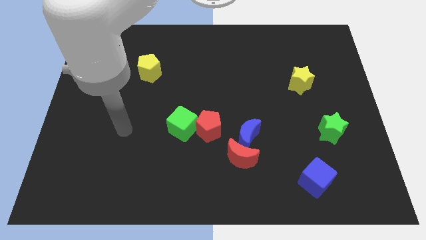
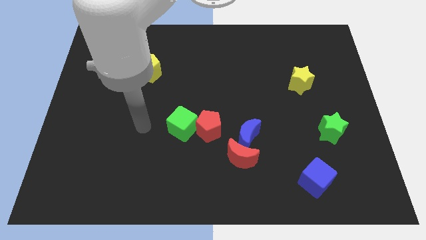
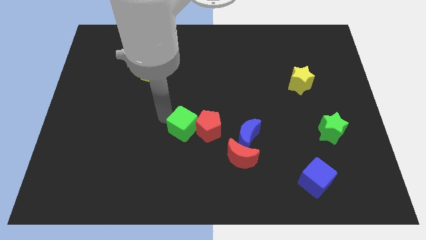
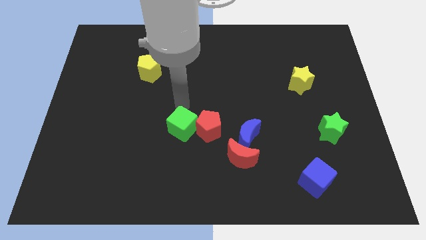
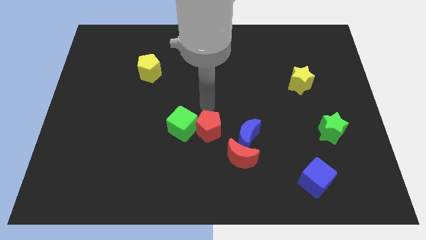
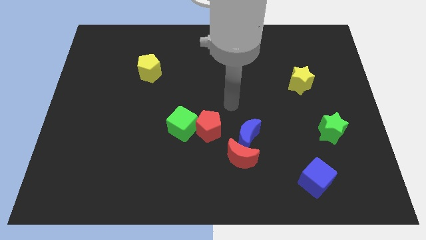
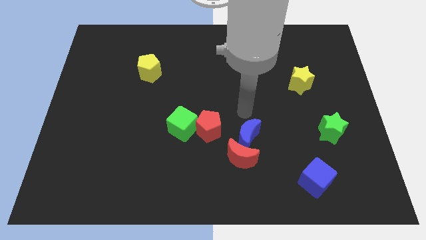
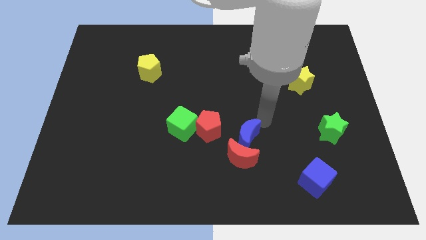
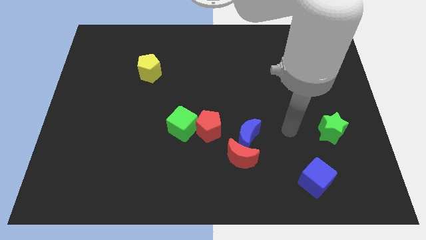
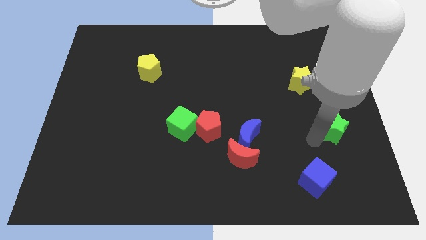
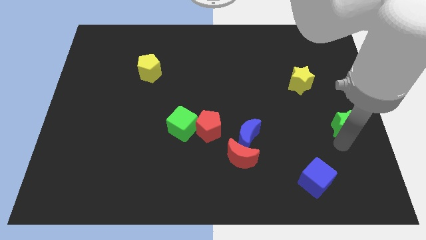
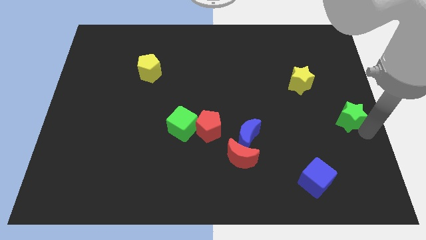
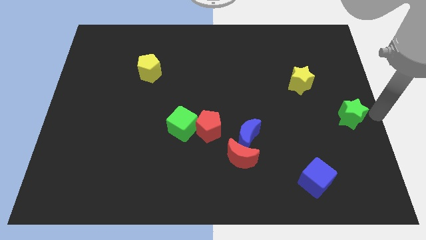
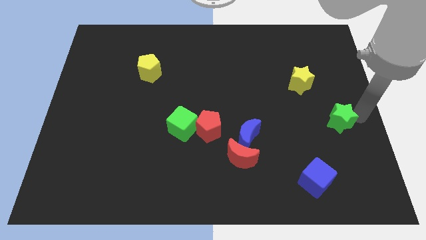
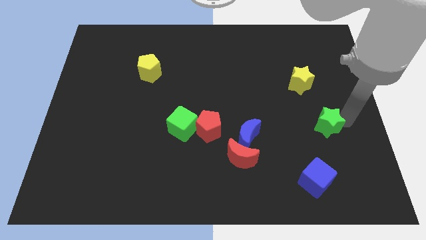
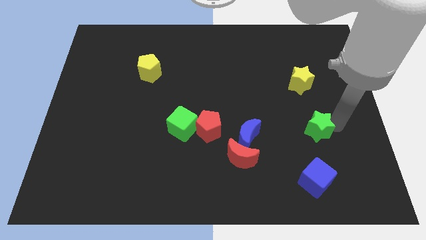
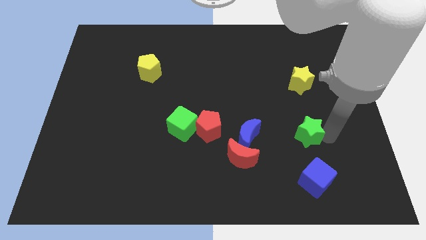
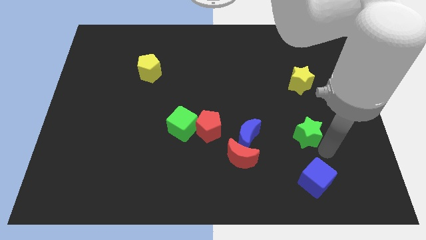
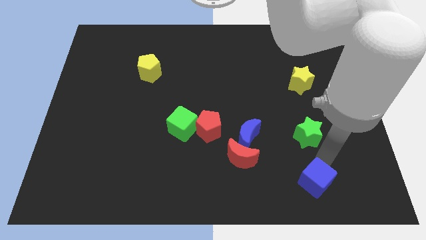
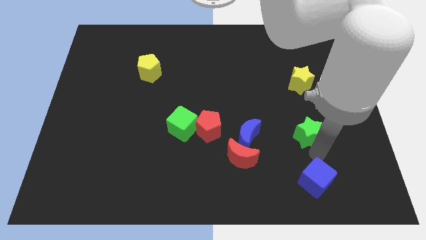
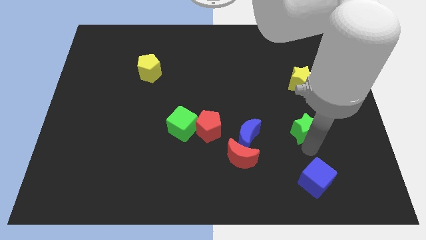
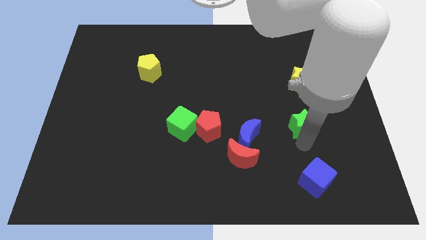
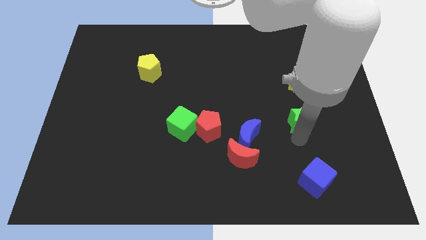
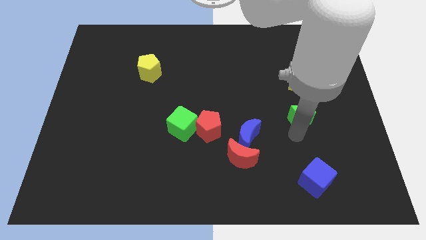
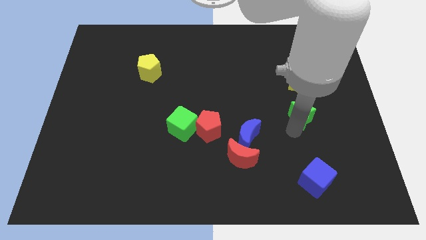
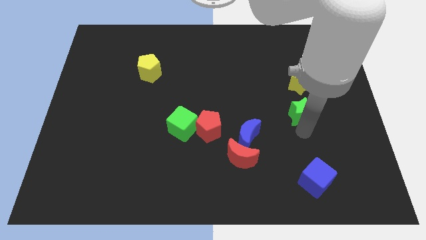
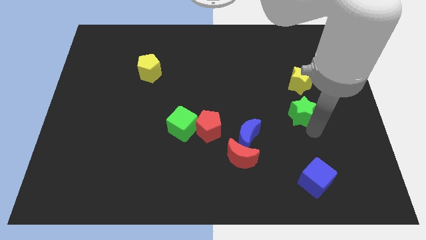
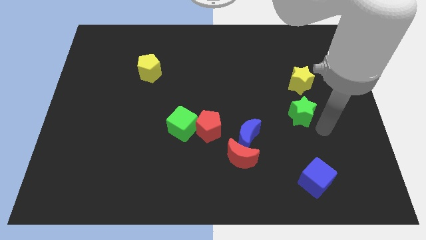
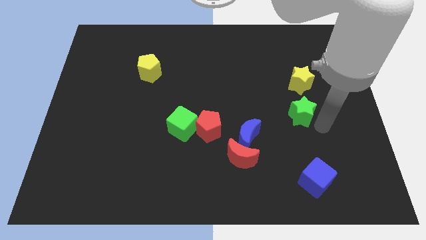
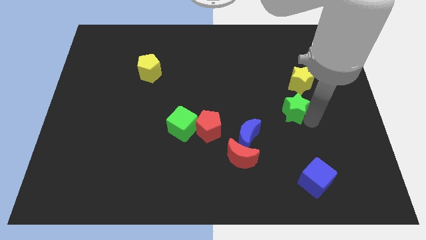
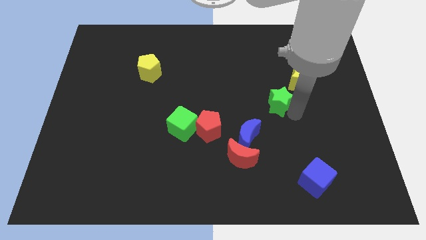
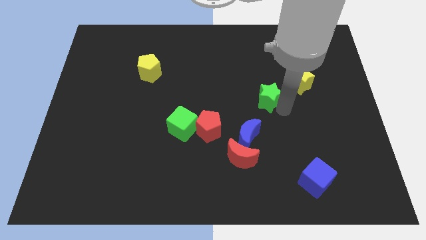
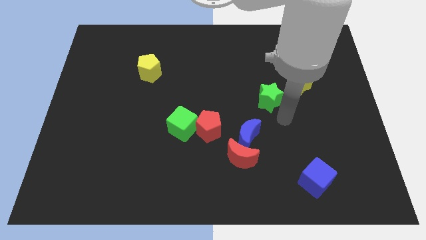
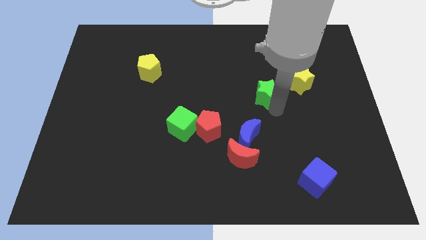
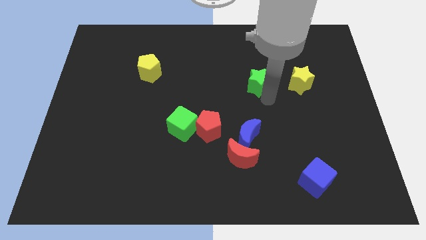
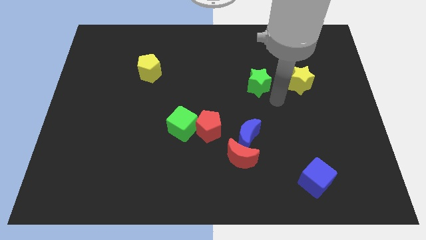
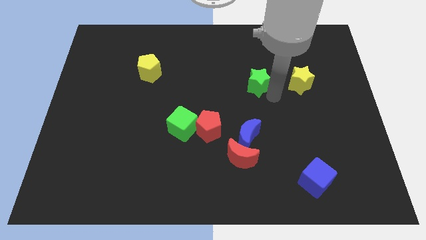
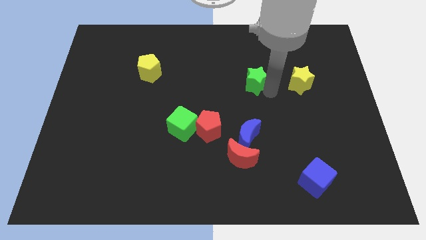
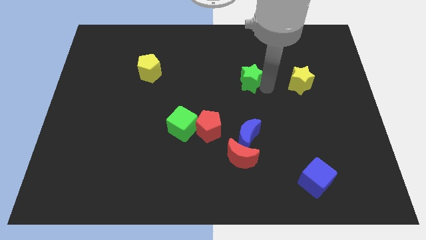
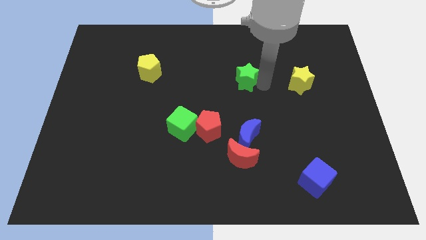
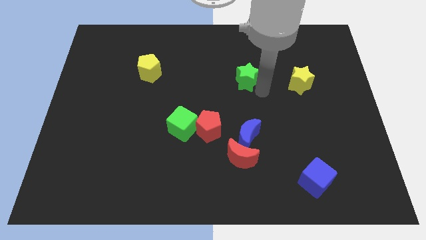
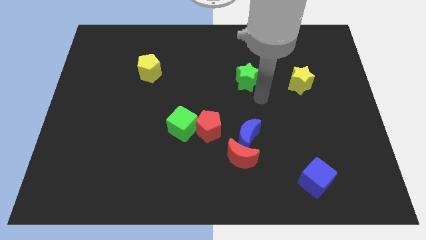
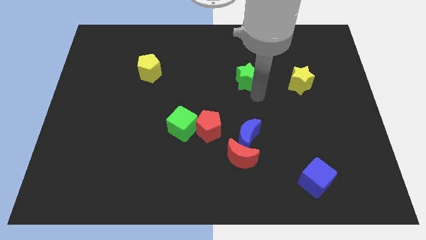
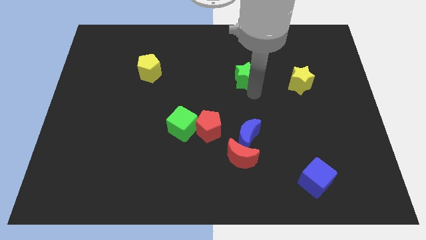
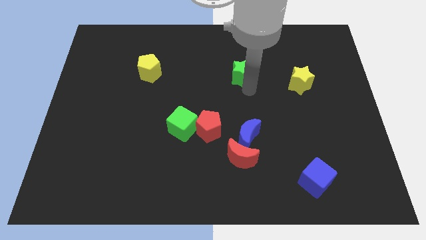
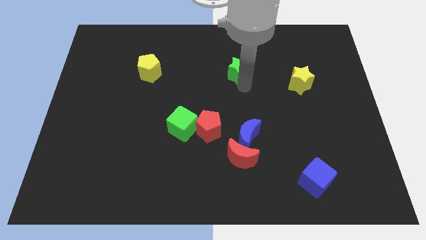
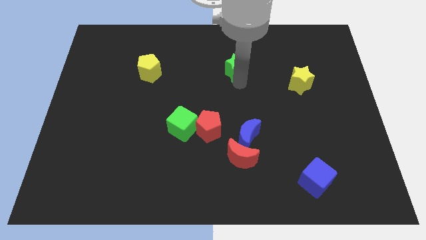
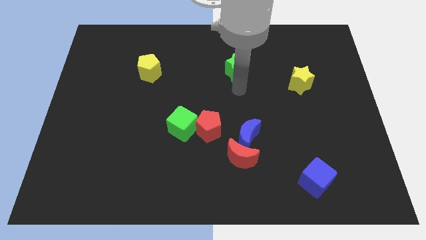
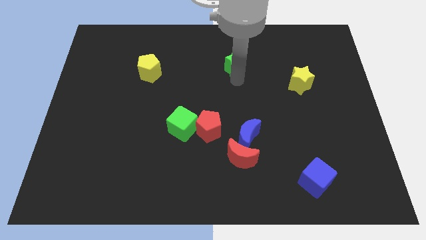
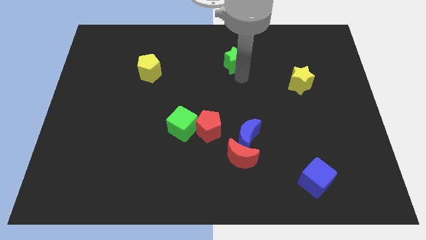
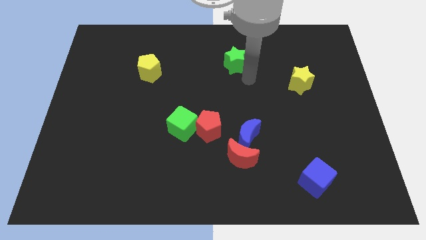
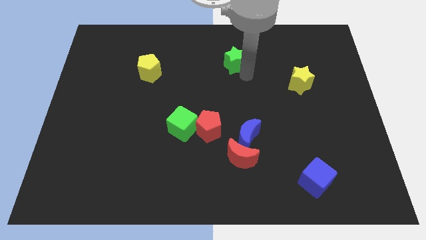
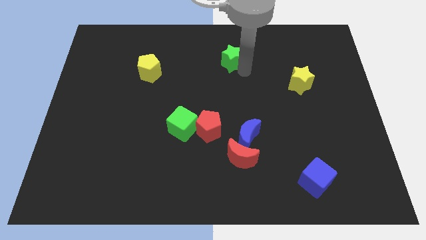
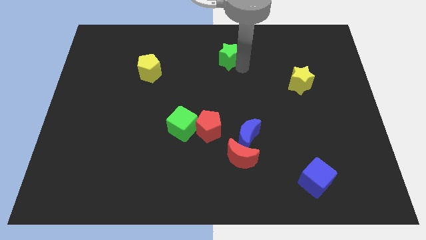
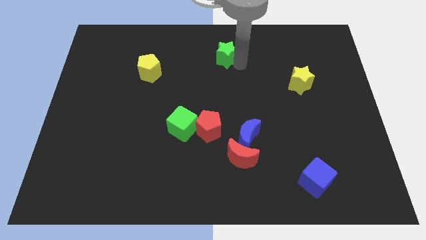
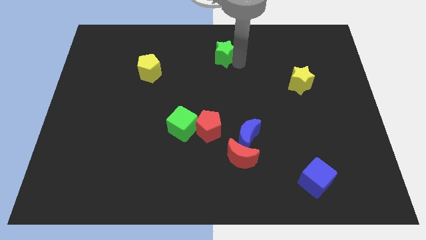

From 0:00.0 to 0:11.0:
put the green star to the top side

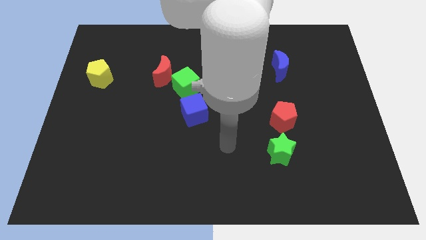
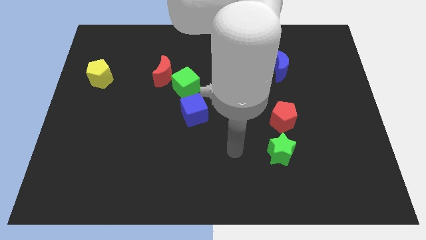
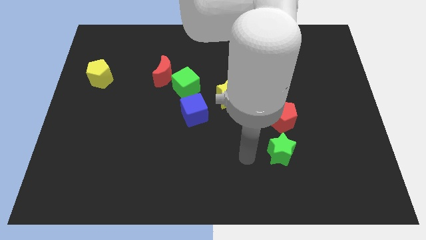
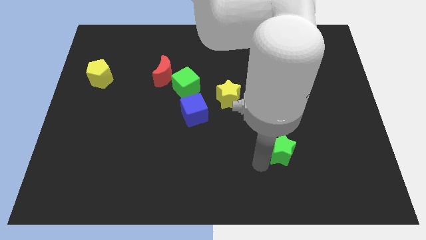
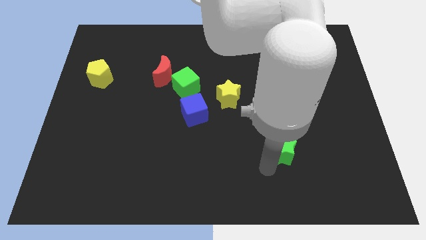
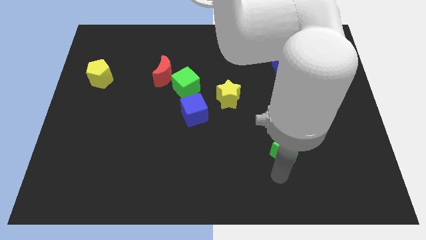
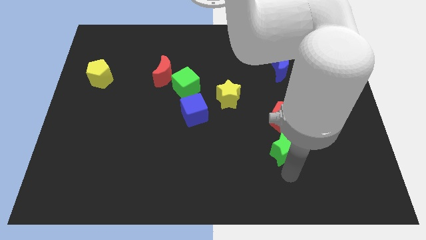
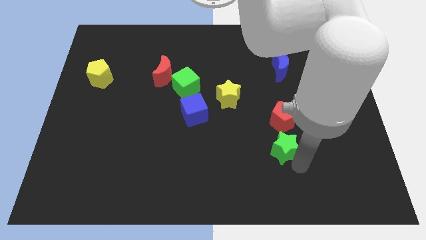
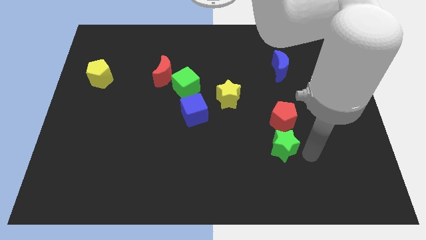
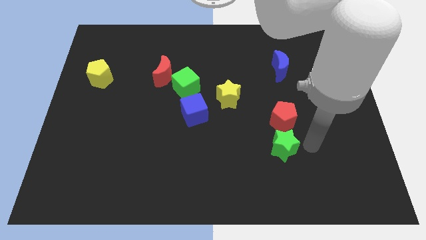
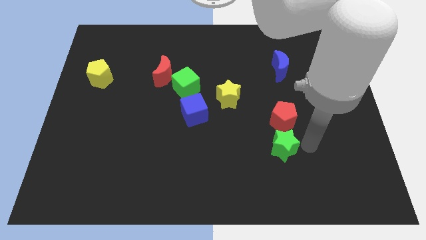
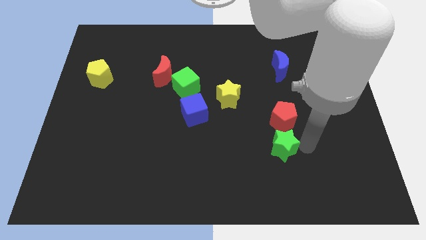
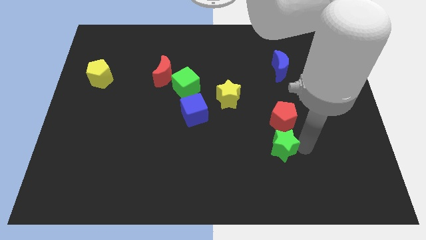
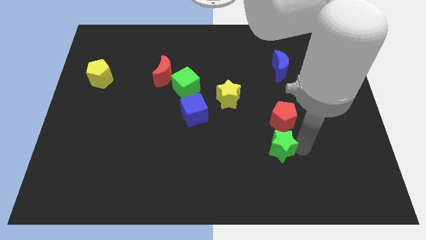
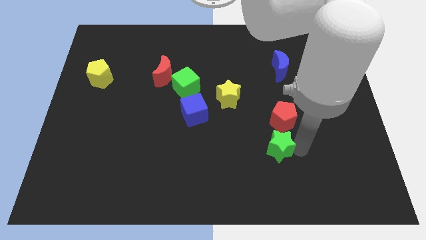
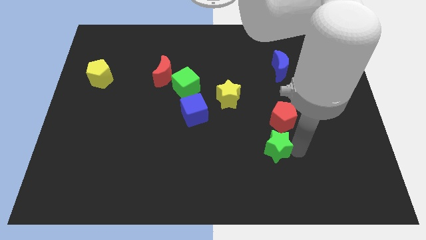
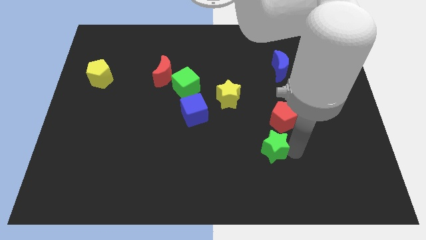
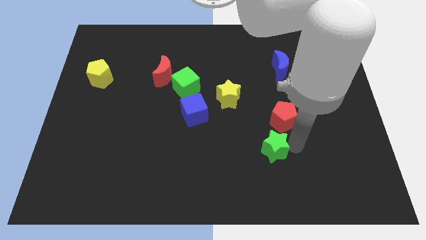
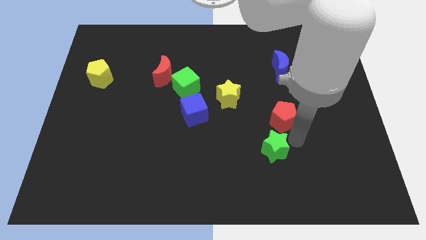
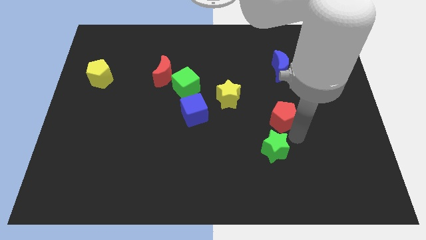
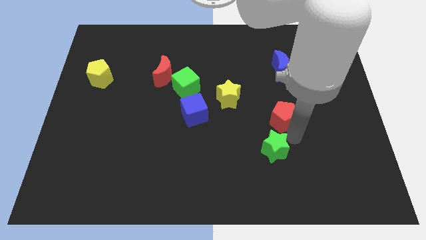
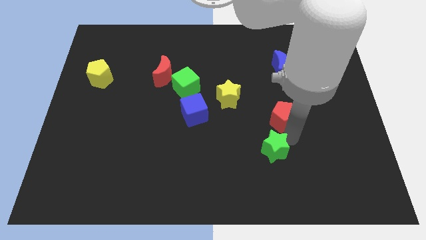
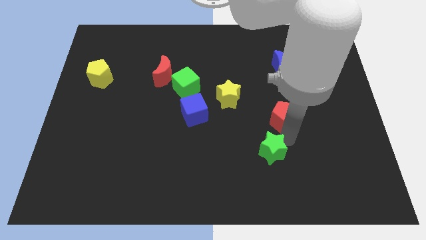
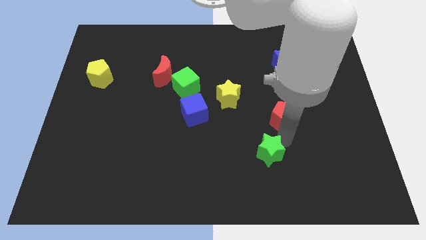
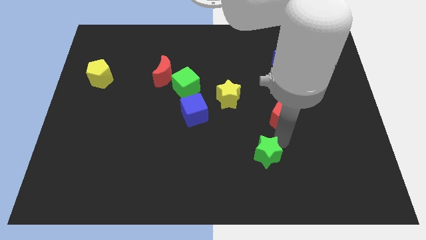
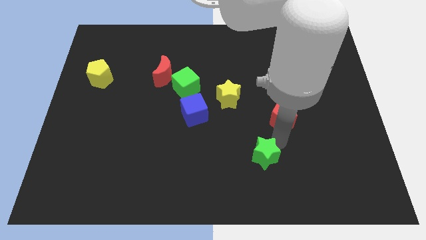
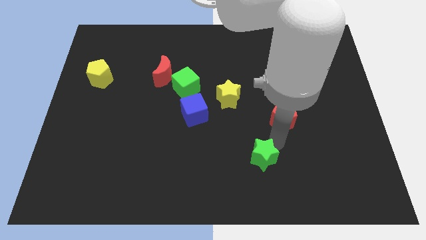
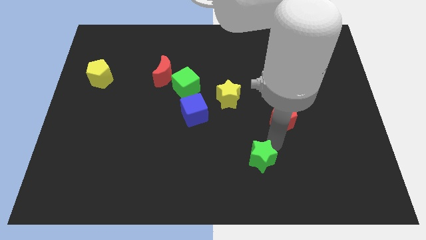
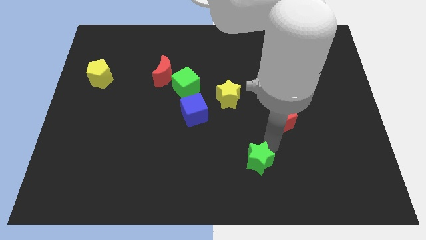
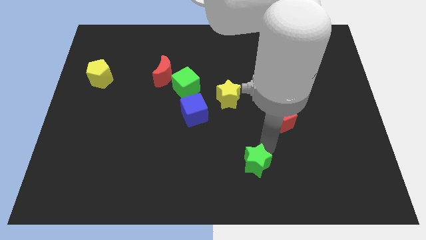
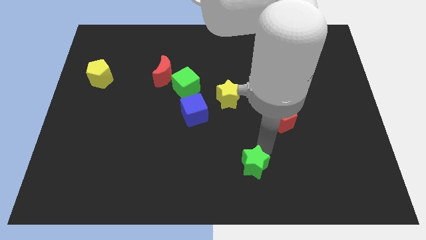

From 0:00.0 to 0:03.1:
put the green star to the bottom side
